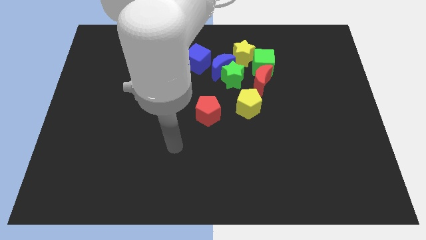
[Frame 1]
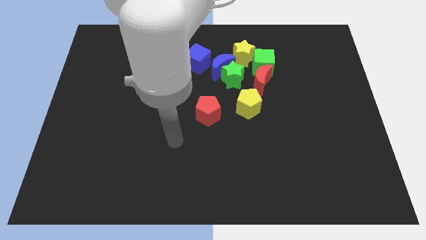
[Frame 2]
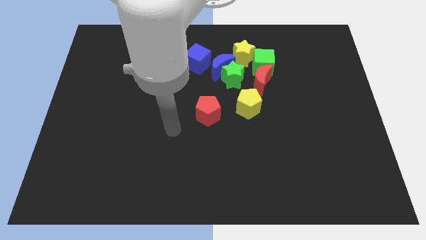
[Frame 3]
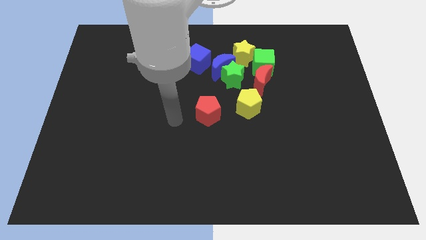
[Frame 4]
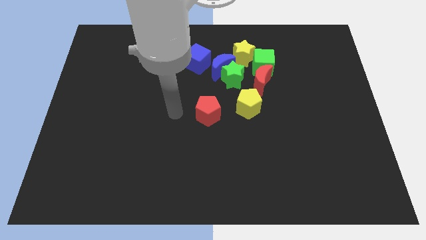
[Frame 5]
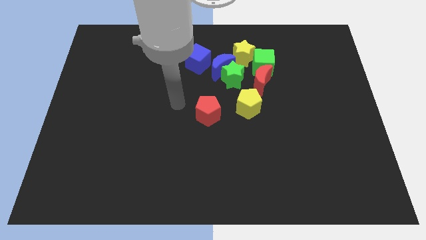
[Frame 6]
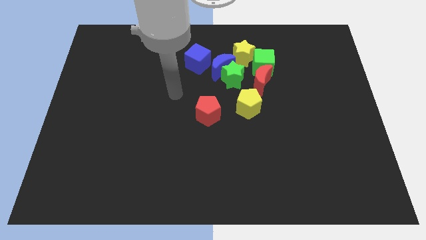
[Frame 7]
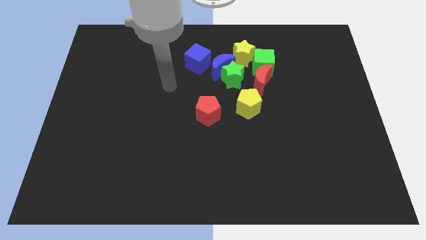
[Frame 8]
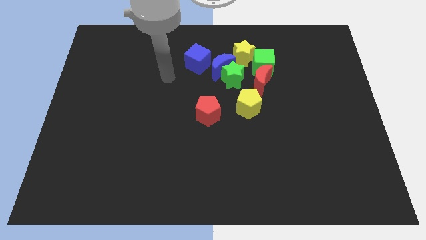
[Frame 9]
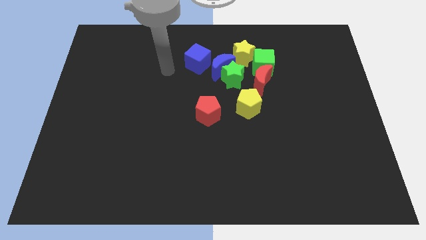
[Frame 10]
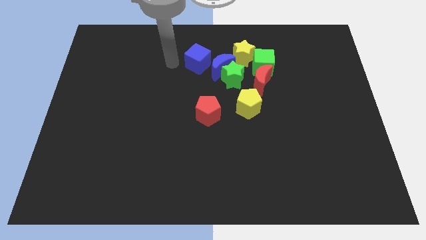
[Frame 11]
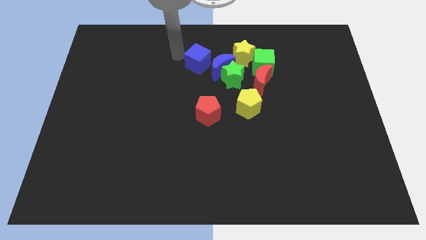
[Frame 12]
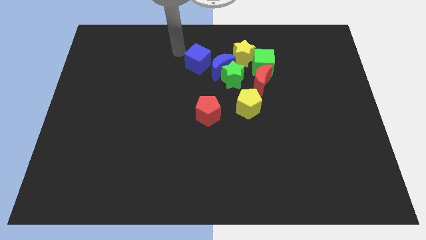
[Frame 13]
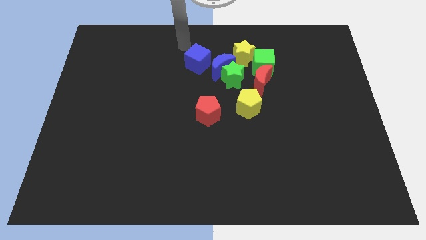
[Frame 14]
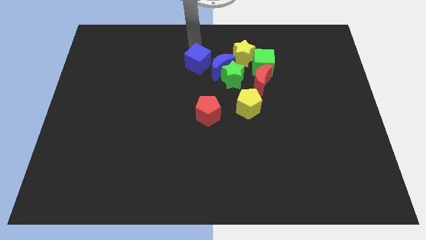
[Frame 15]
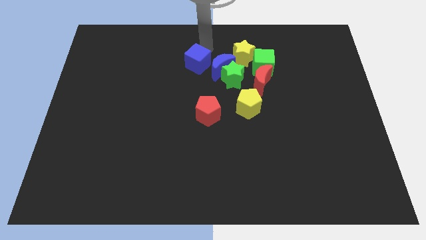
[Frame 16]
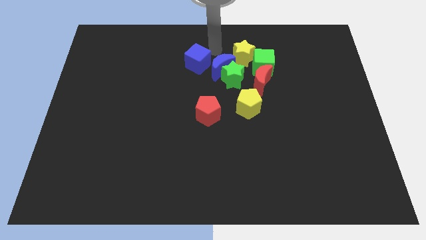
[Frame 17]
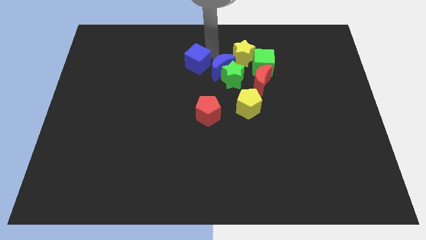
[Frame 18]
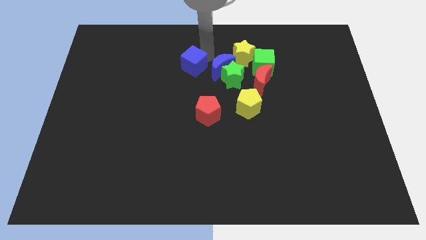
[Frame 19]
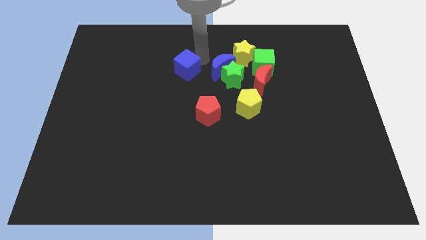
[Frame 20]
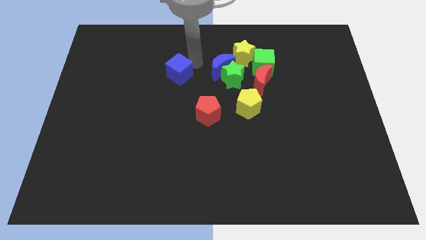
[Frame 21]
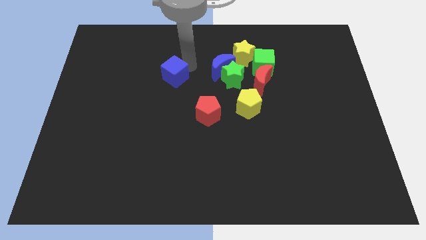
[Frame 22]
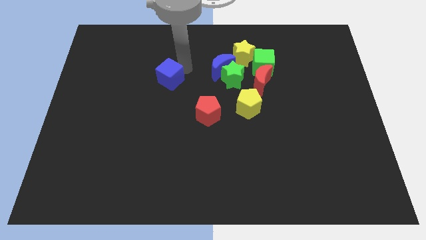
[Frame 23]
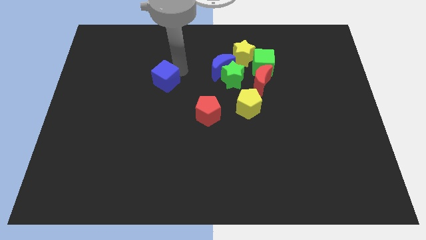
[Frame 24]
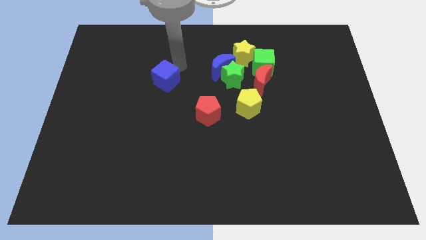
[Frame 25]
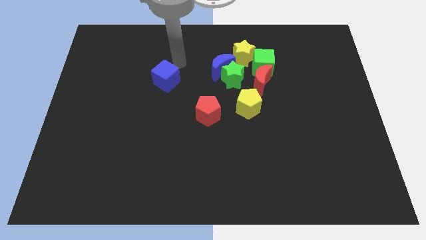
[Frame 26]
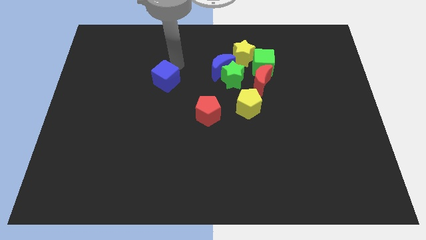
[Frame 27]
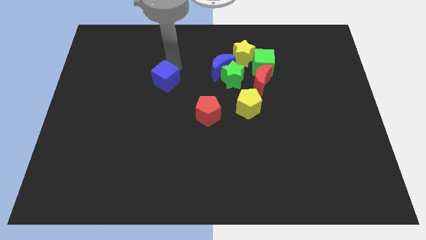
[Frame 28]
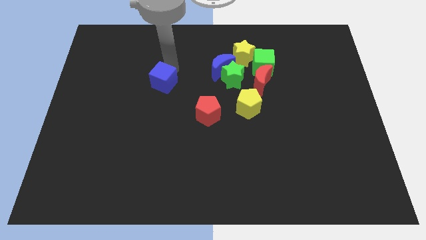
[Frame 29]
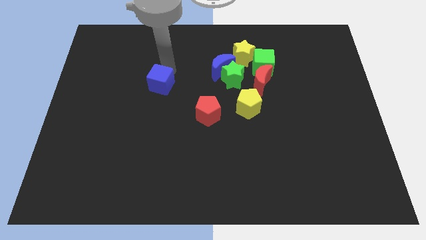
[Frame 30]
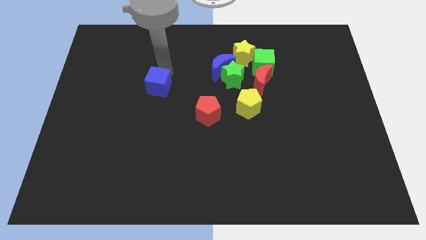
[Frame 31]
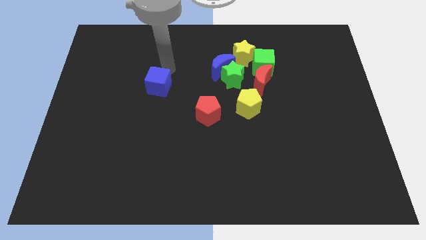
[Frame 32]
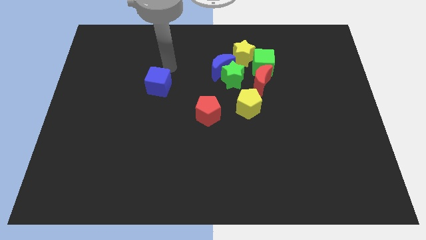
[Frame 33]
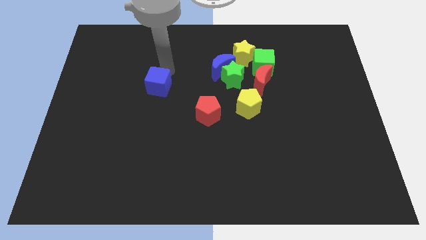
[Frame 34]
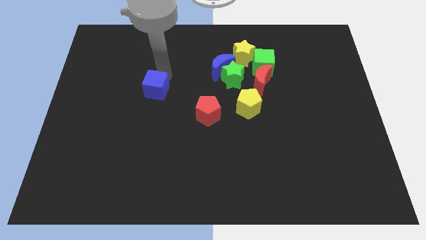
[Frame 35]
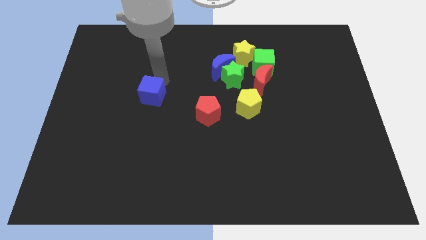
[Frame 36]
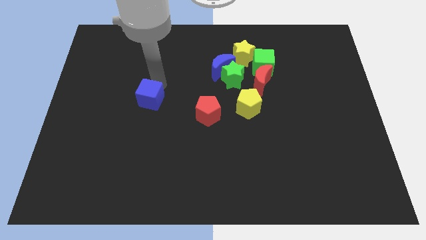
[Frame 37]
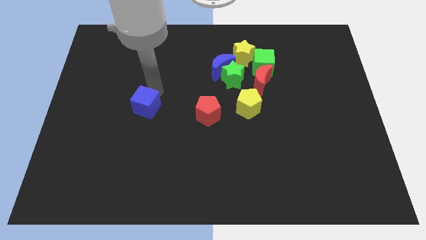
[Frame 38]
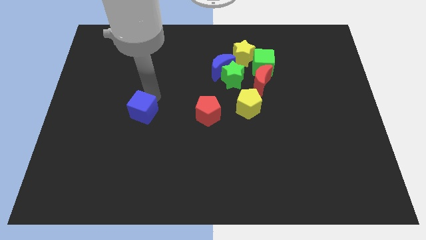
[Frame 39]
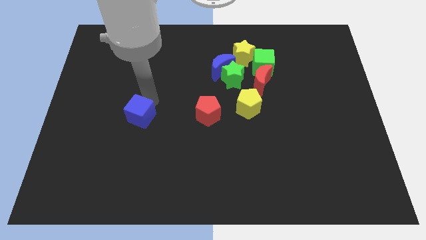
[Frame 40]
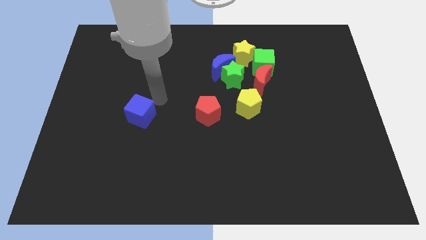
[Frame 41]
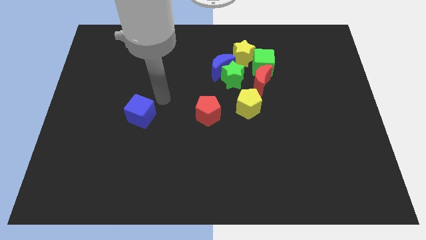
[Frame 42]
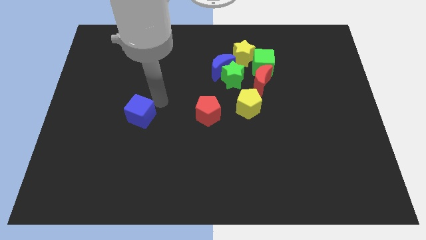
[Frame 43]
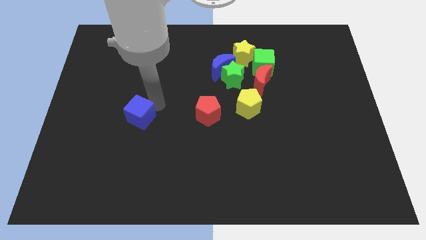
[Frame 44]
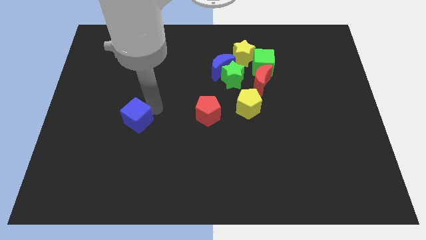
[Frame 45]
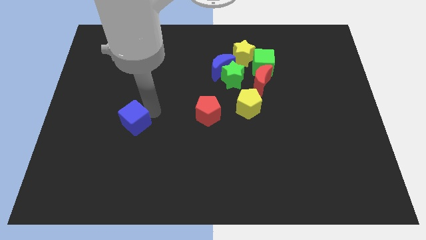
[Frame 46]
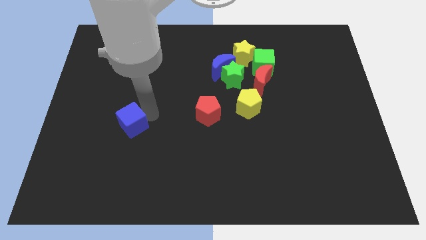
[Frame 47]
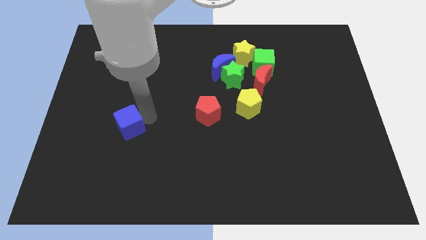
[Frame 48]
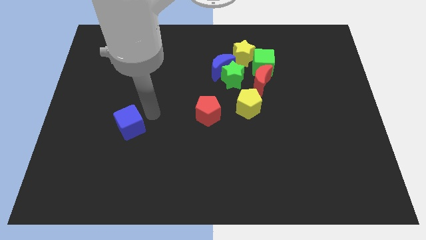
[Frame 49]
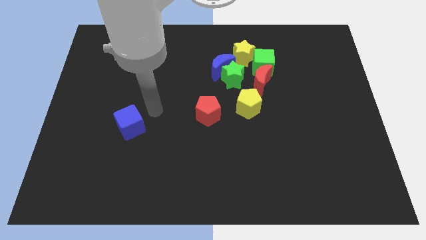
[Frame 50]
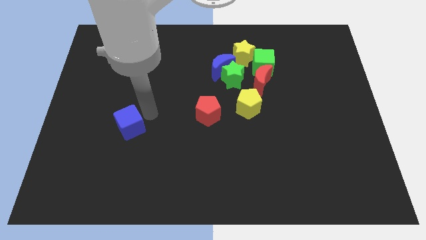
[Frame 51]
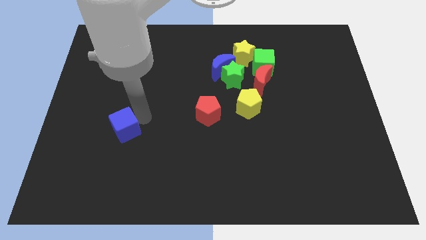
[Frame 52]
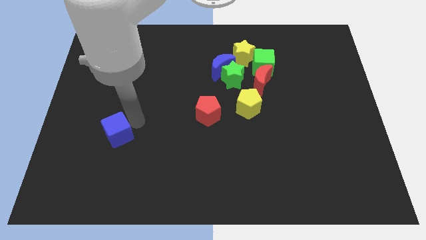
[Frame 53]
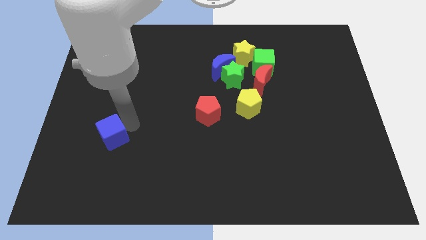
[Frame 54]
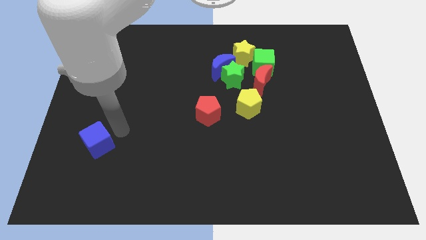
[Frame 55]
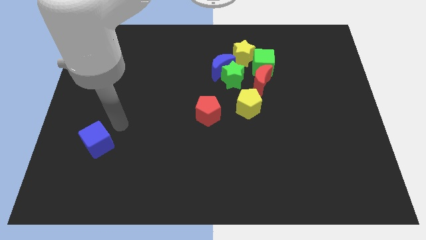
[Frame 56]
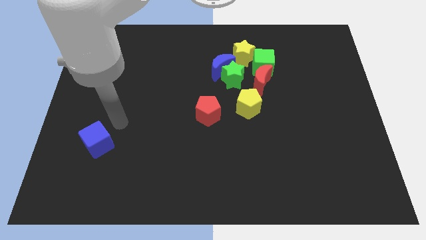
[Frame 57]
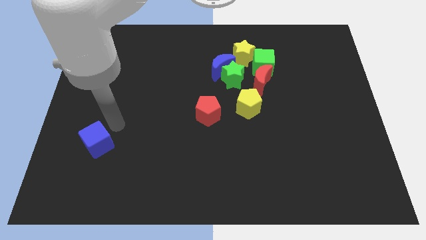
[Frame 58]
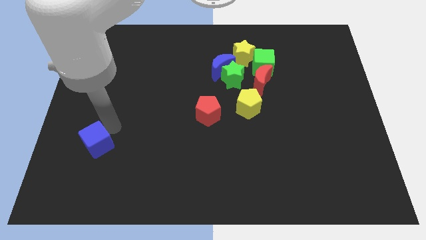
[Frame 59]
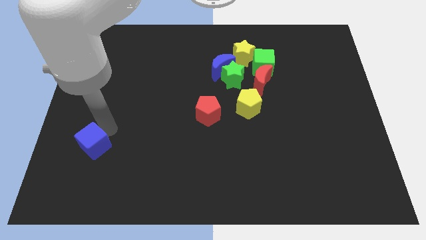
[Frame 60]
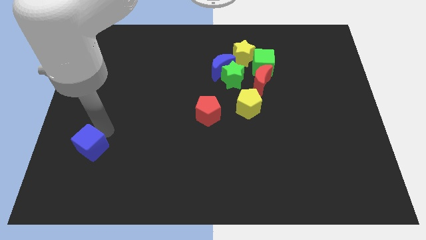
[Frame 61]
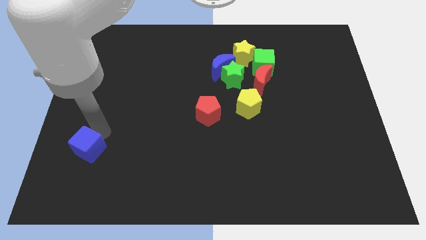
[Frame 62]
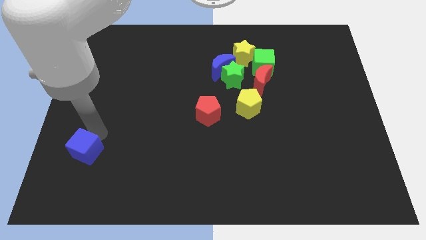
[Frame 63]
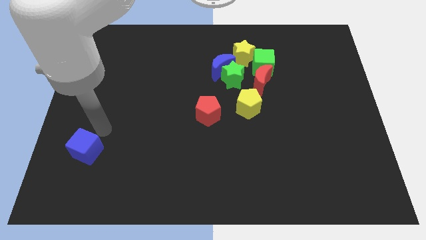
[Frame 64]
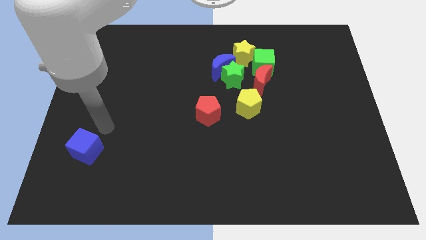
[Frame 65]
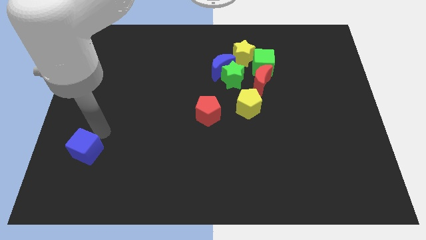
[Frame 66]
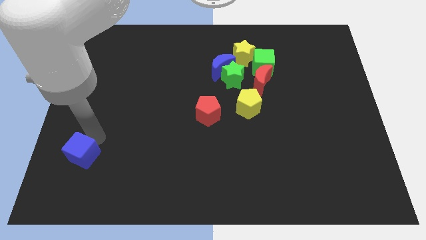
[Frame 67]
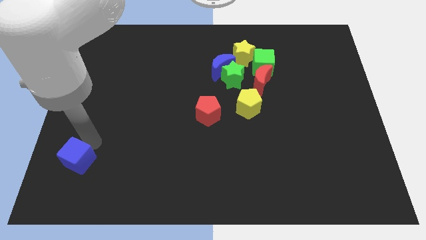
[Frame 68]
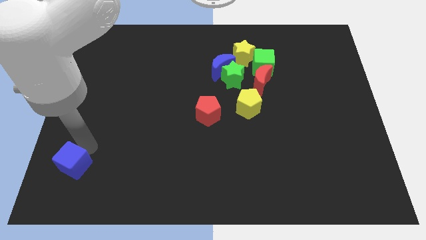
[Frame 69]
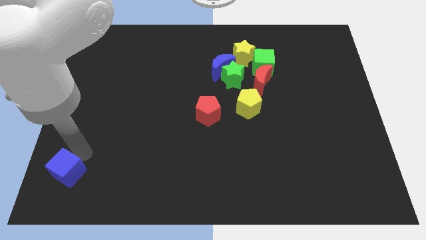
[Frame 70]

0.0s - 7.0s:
slide the blue cube to the bottom left
